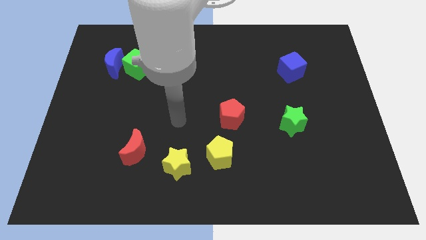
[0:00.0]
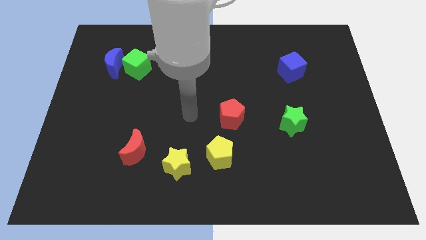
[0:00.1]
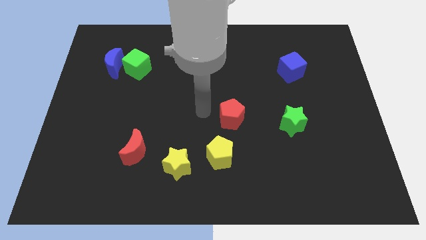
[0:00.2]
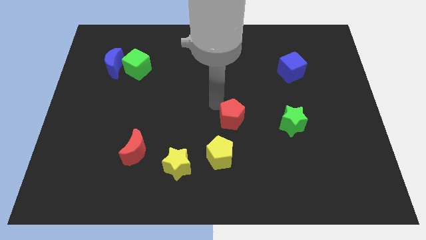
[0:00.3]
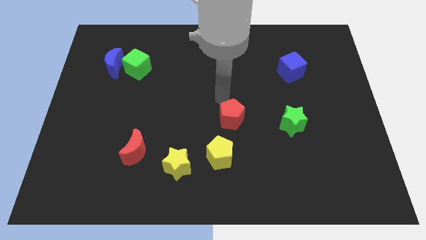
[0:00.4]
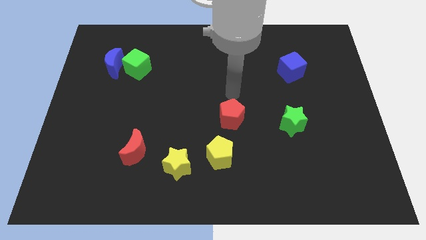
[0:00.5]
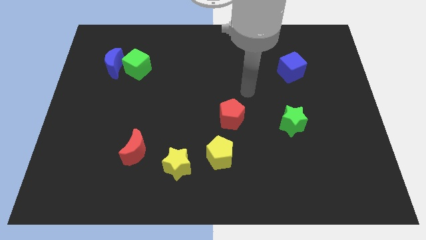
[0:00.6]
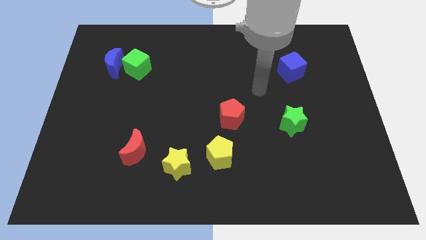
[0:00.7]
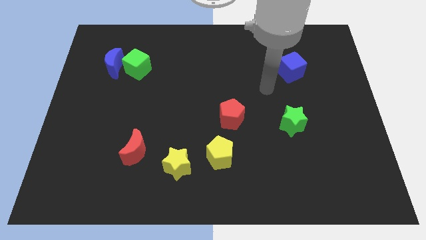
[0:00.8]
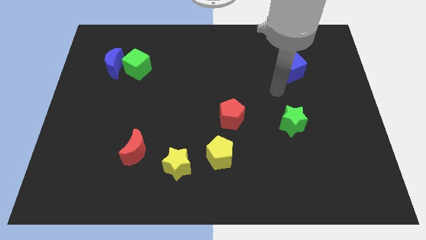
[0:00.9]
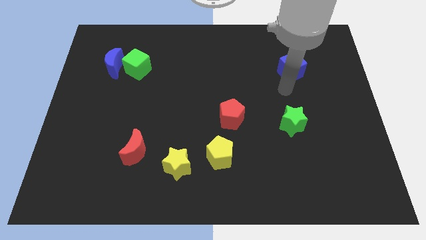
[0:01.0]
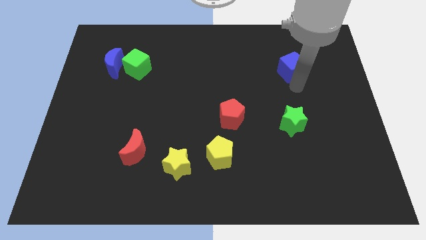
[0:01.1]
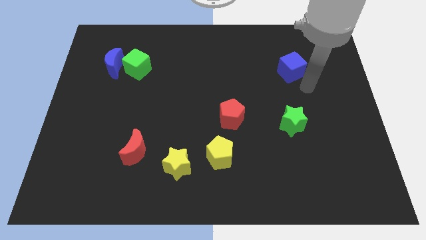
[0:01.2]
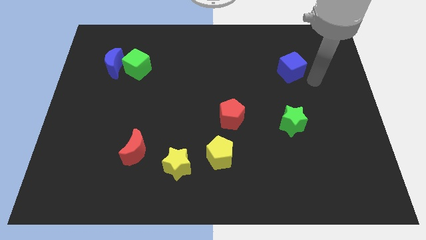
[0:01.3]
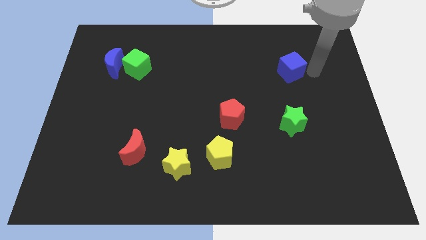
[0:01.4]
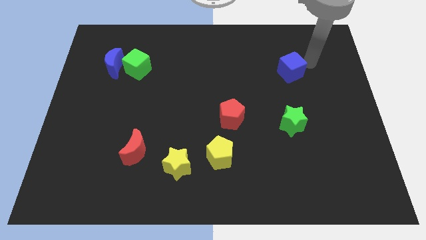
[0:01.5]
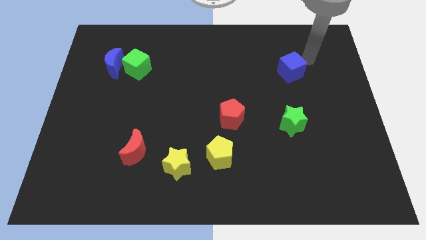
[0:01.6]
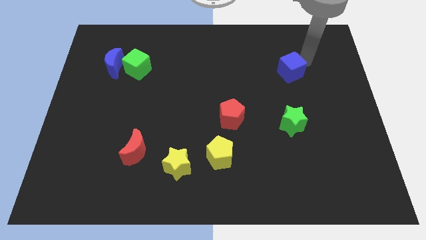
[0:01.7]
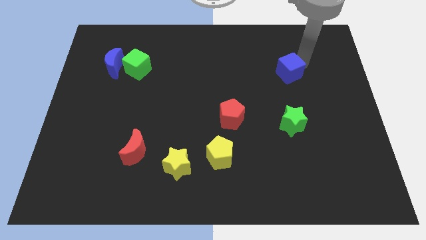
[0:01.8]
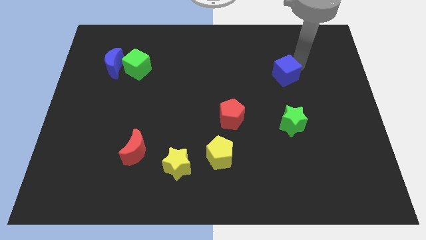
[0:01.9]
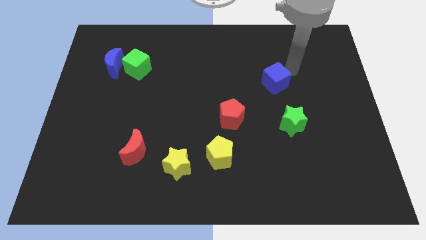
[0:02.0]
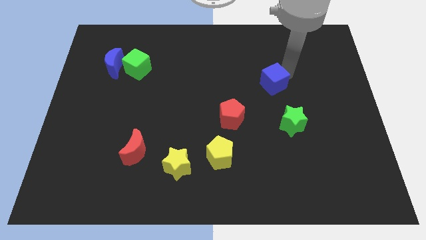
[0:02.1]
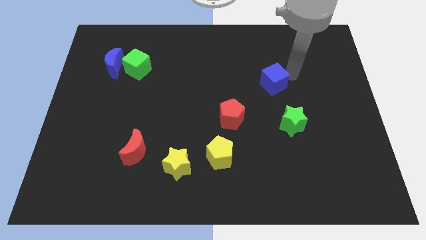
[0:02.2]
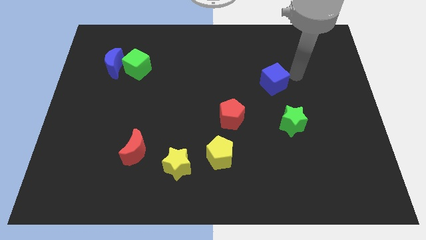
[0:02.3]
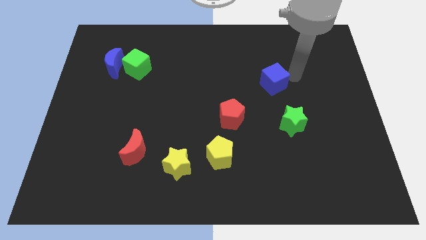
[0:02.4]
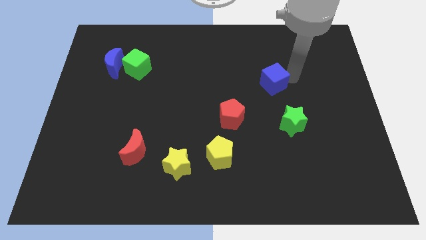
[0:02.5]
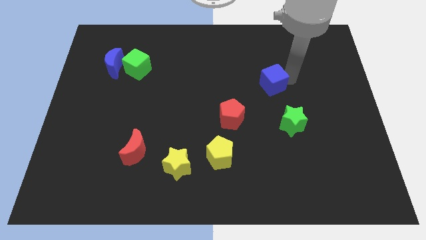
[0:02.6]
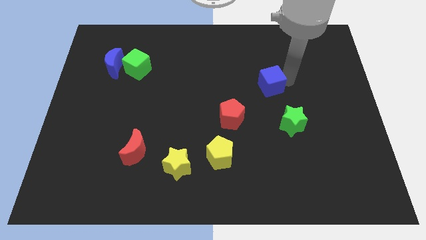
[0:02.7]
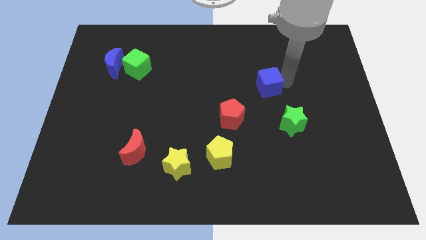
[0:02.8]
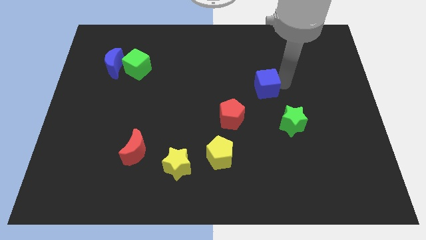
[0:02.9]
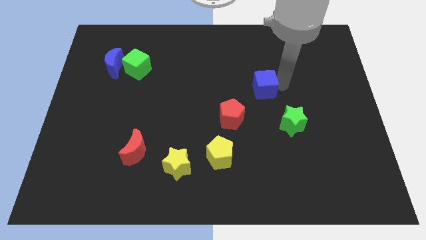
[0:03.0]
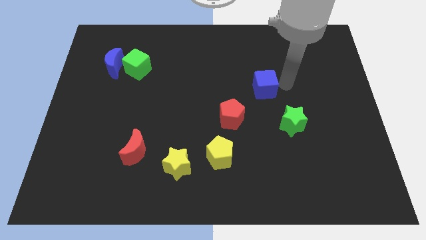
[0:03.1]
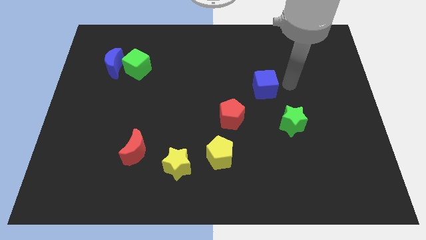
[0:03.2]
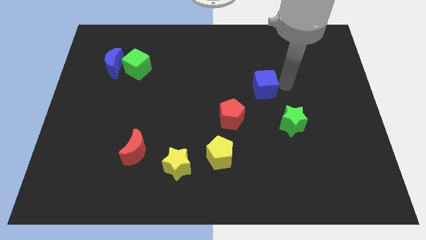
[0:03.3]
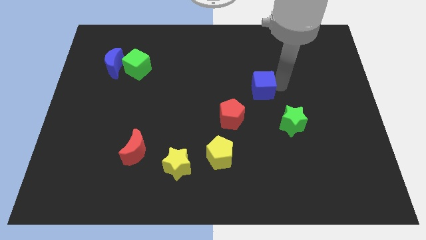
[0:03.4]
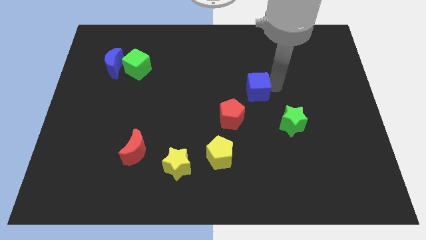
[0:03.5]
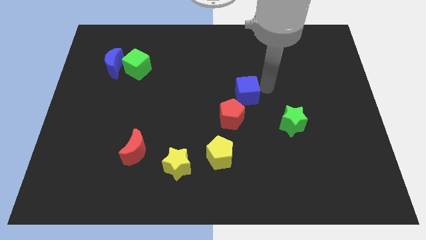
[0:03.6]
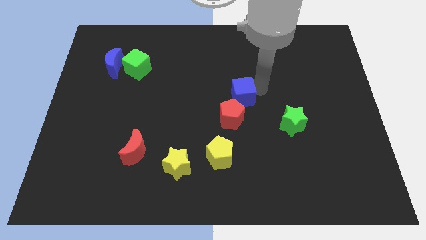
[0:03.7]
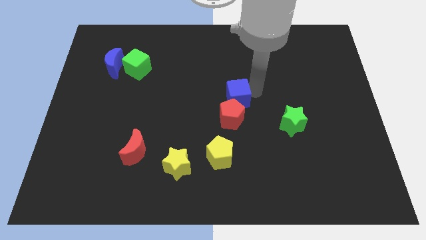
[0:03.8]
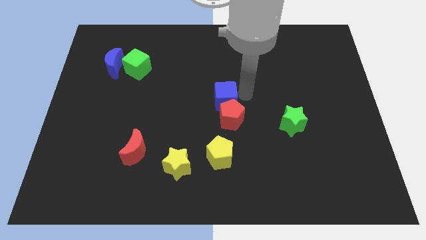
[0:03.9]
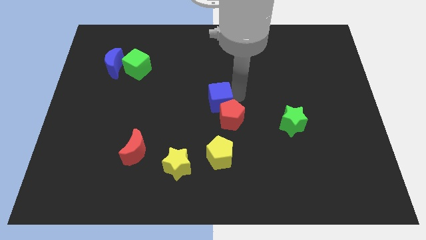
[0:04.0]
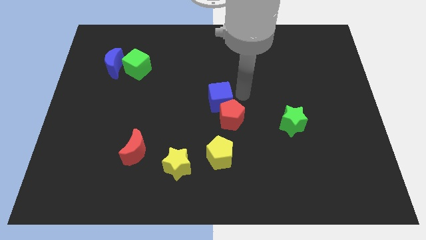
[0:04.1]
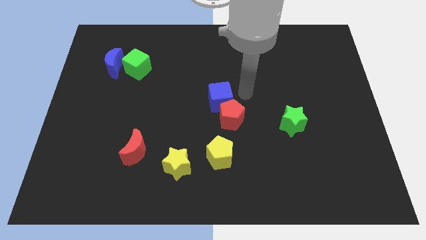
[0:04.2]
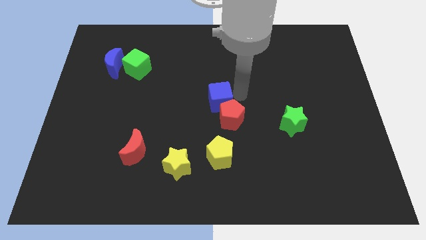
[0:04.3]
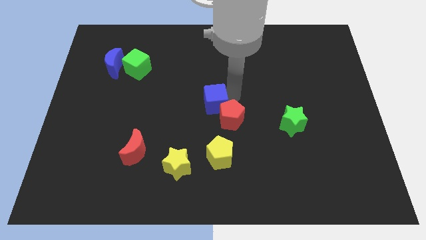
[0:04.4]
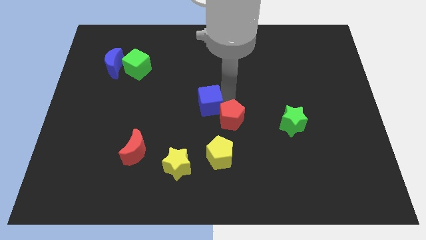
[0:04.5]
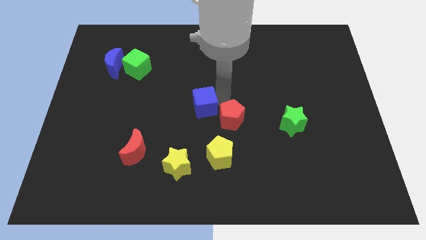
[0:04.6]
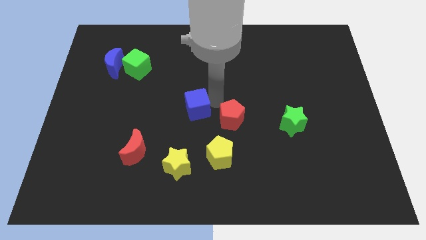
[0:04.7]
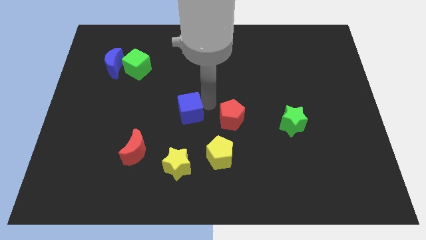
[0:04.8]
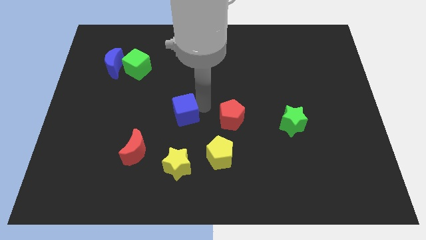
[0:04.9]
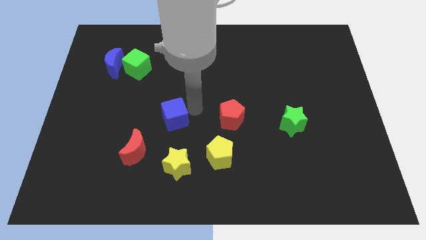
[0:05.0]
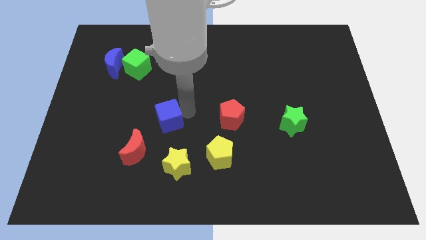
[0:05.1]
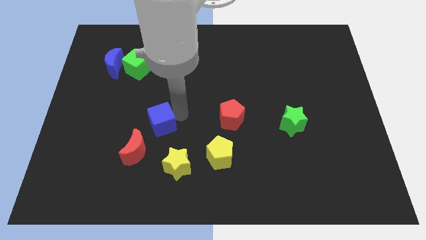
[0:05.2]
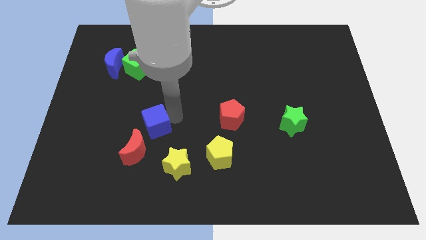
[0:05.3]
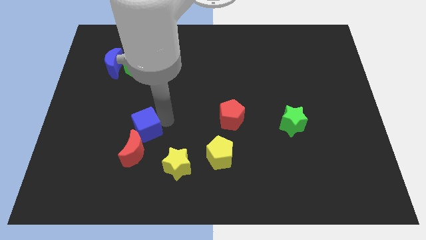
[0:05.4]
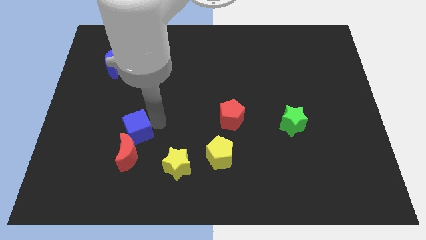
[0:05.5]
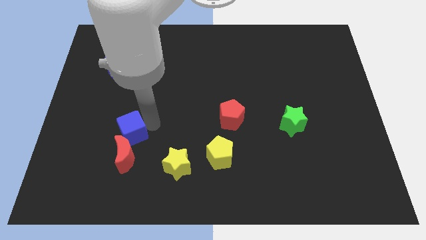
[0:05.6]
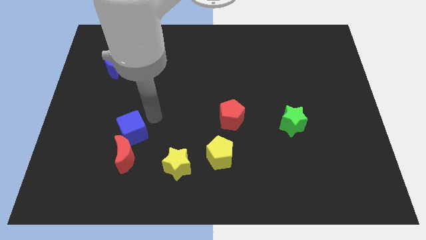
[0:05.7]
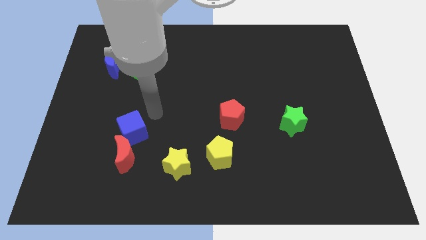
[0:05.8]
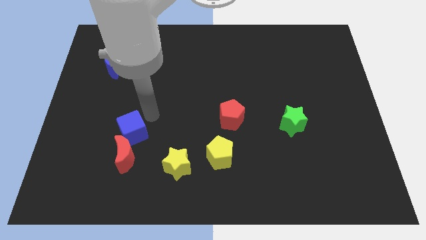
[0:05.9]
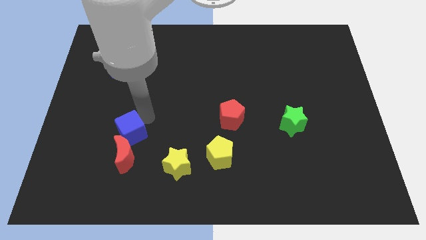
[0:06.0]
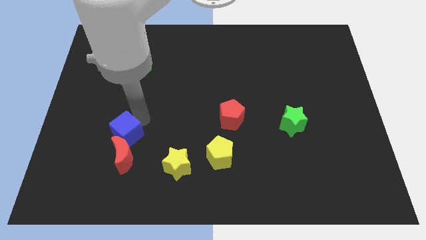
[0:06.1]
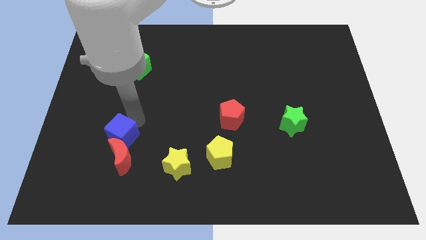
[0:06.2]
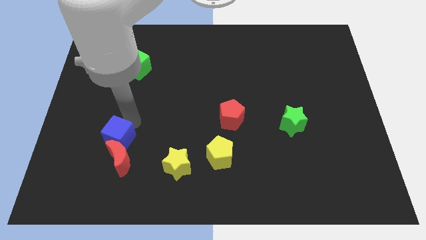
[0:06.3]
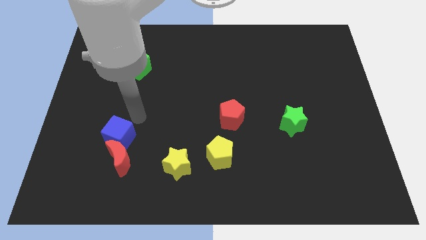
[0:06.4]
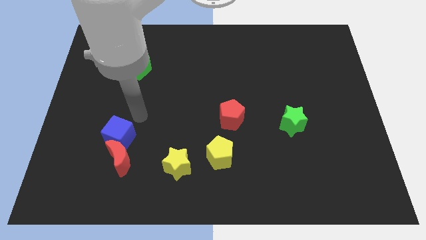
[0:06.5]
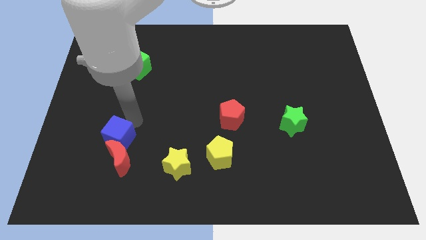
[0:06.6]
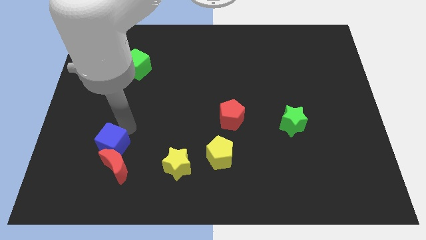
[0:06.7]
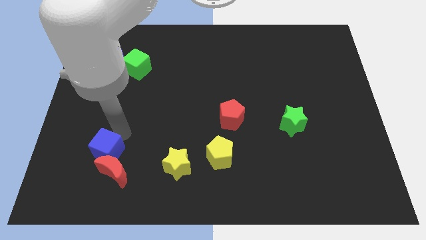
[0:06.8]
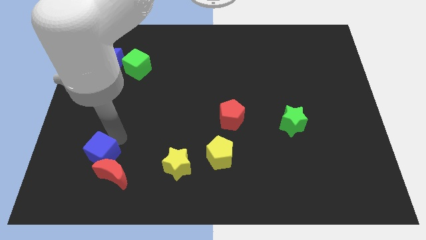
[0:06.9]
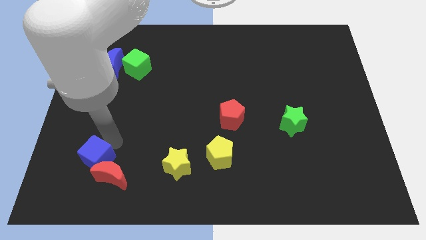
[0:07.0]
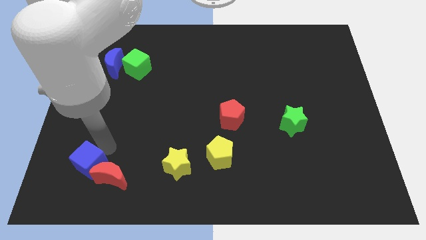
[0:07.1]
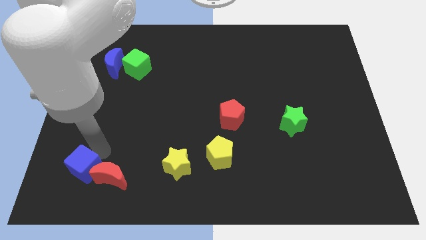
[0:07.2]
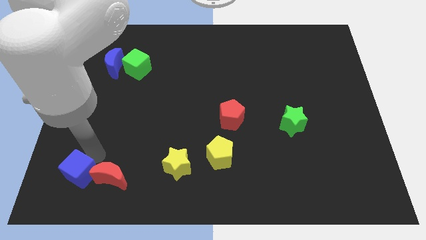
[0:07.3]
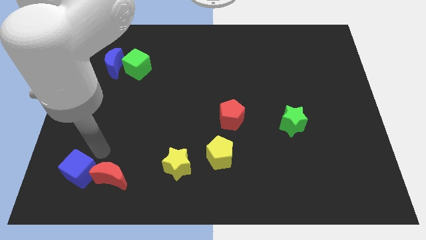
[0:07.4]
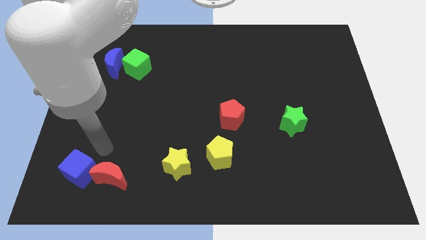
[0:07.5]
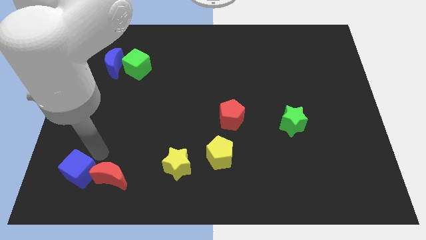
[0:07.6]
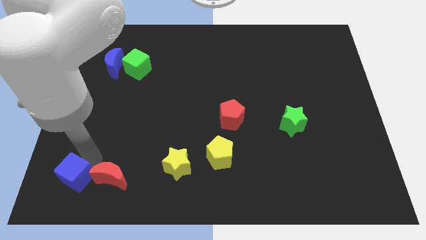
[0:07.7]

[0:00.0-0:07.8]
slide the blue cube to the lower left corner
